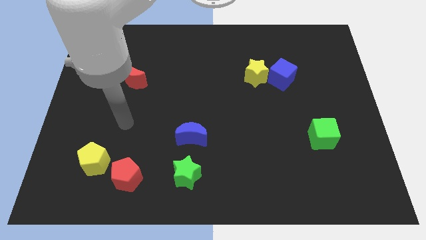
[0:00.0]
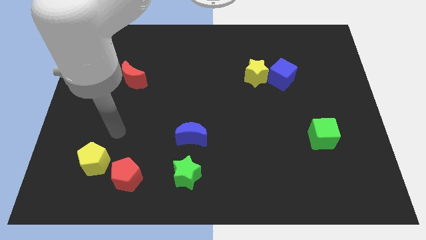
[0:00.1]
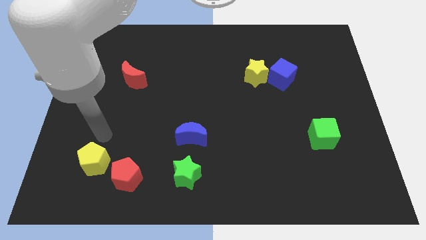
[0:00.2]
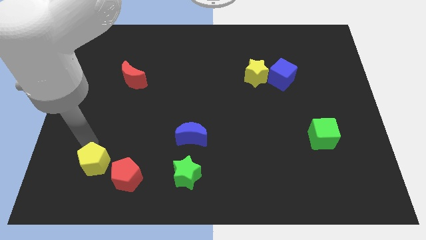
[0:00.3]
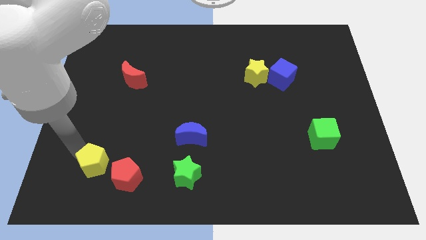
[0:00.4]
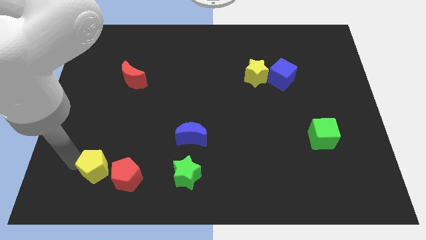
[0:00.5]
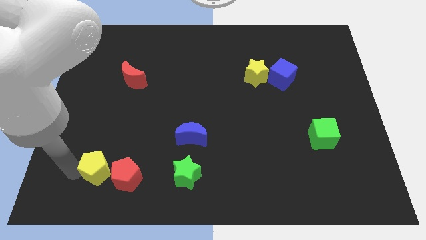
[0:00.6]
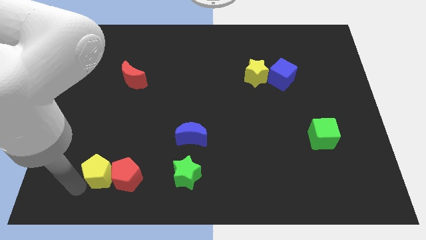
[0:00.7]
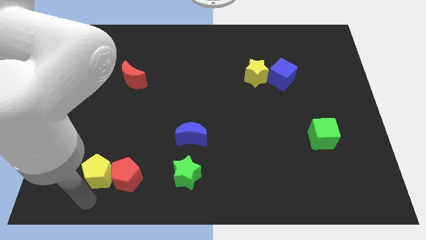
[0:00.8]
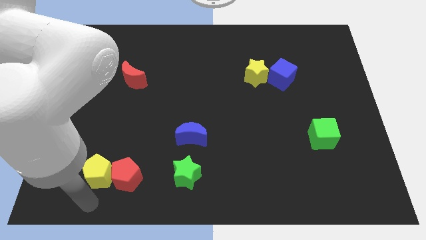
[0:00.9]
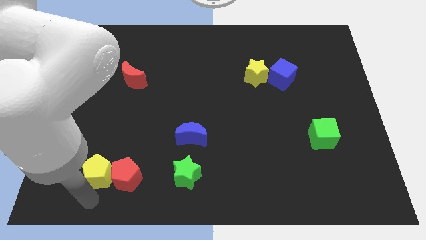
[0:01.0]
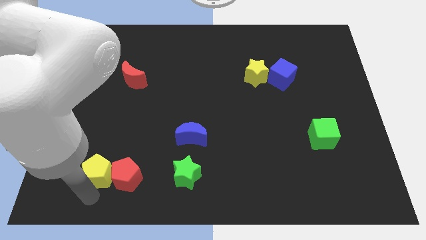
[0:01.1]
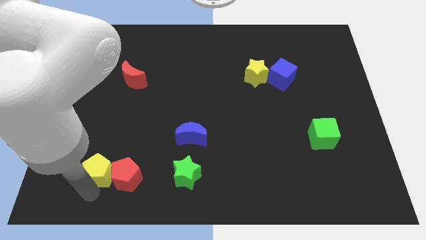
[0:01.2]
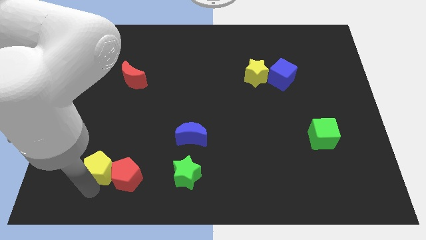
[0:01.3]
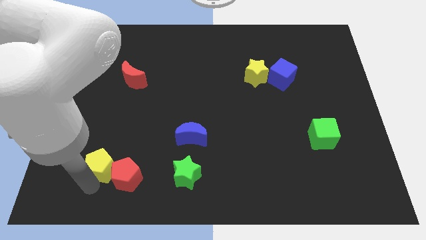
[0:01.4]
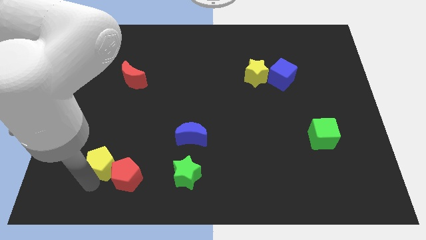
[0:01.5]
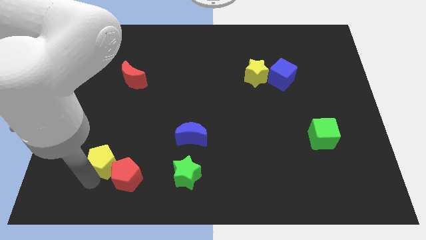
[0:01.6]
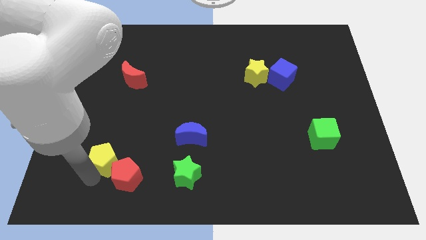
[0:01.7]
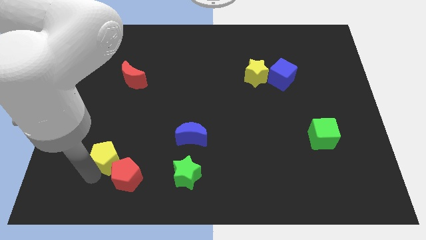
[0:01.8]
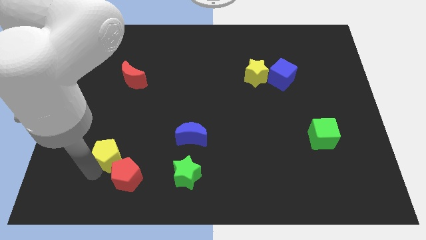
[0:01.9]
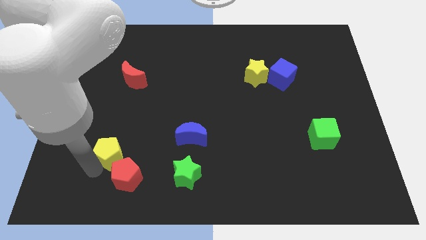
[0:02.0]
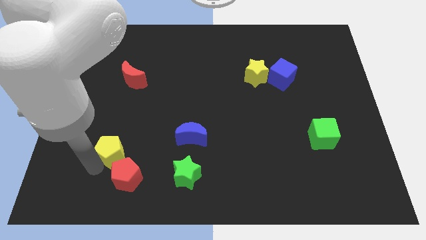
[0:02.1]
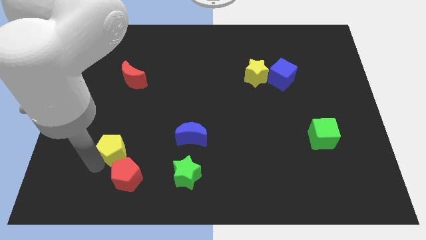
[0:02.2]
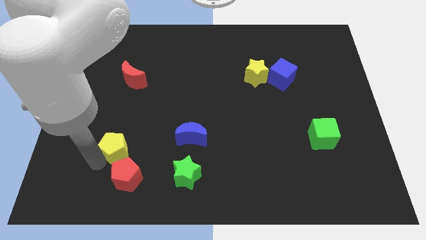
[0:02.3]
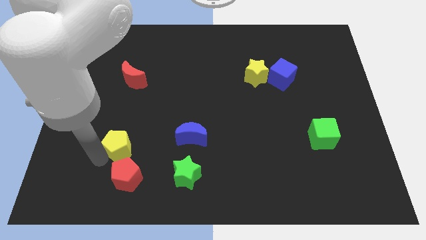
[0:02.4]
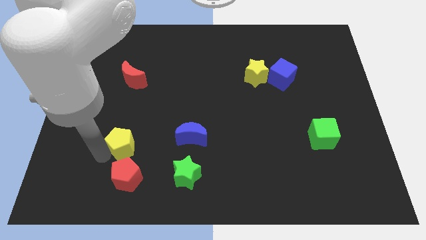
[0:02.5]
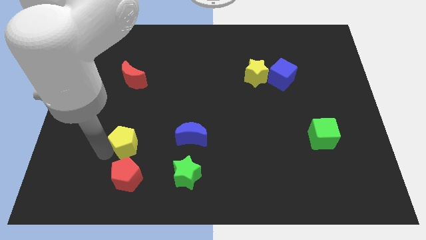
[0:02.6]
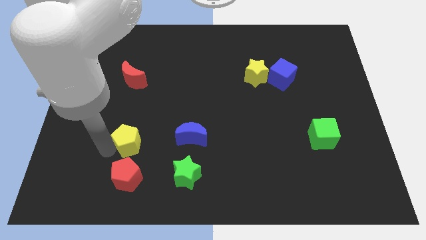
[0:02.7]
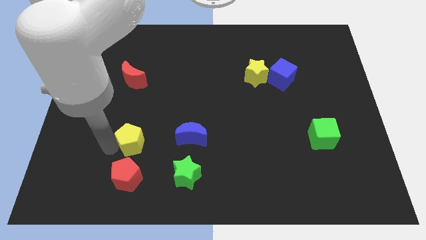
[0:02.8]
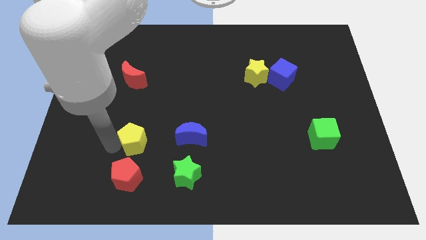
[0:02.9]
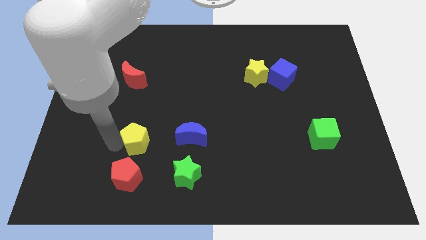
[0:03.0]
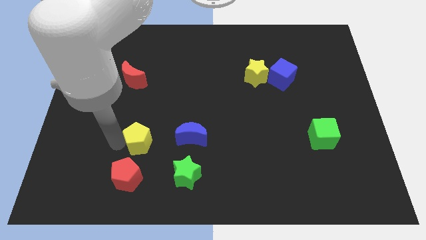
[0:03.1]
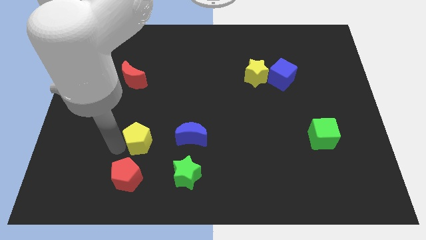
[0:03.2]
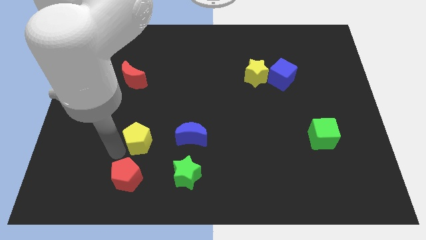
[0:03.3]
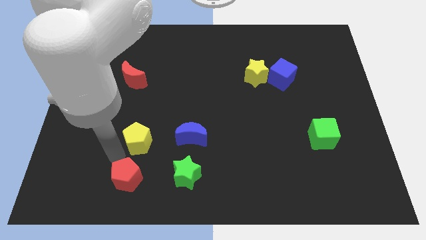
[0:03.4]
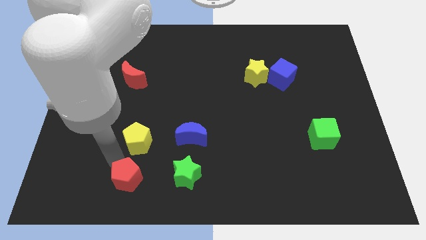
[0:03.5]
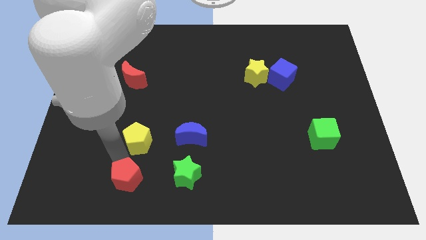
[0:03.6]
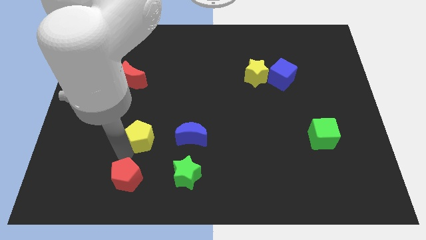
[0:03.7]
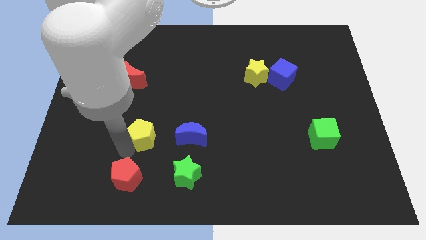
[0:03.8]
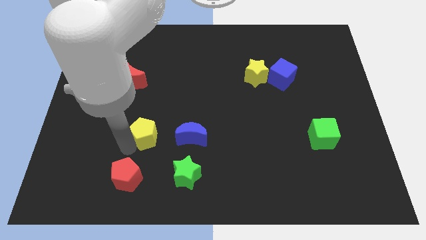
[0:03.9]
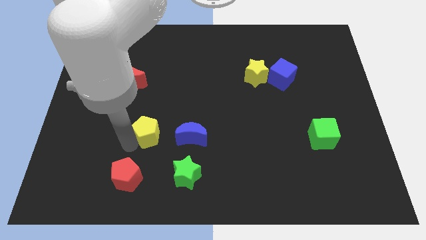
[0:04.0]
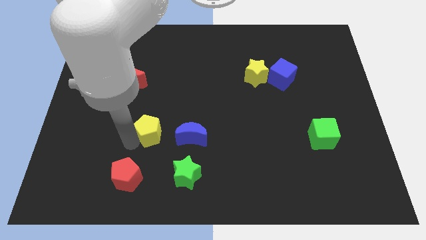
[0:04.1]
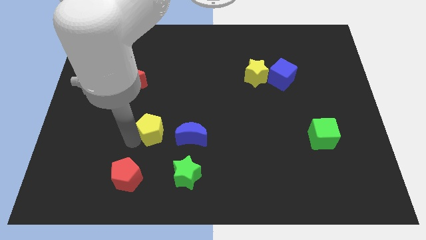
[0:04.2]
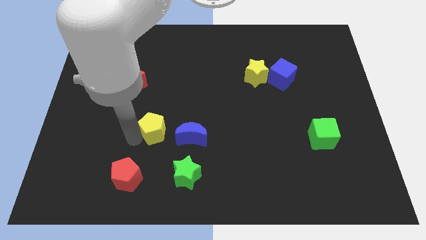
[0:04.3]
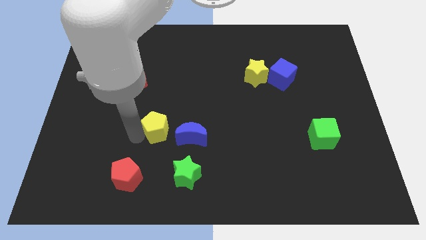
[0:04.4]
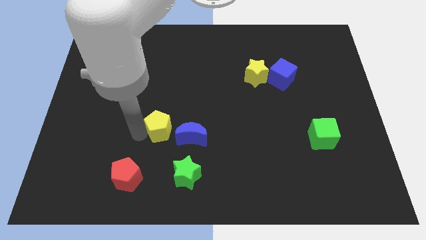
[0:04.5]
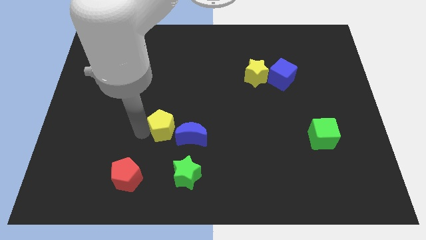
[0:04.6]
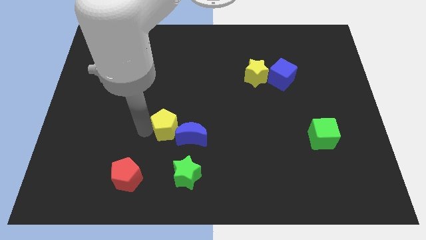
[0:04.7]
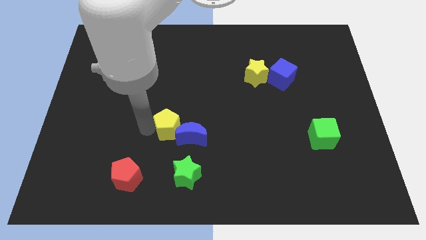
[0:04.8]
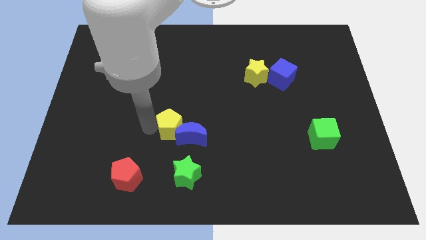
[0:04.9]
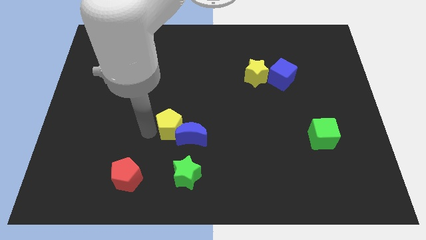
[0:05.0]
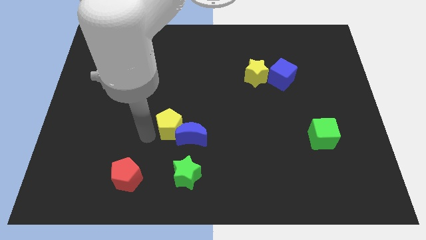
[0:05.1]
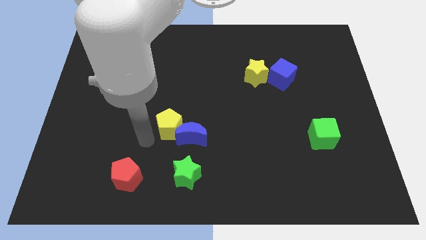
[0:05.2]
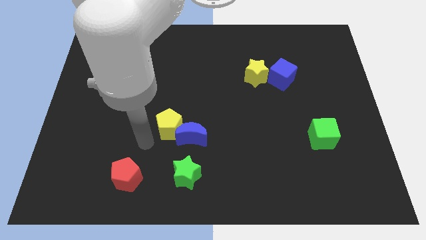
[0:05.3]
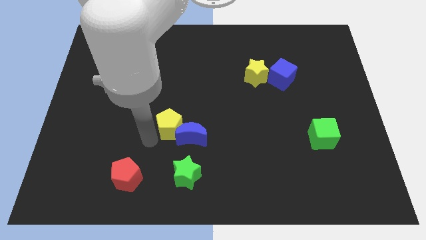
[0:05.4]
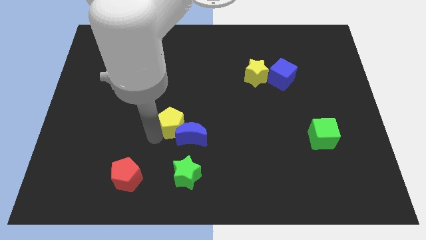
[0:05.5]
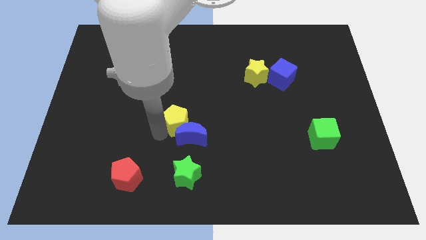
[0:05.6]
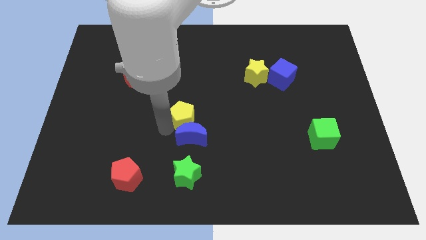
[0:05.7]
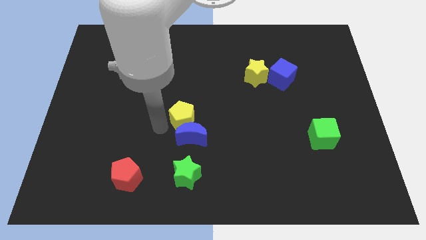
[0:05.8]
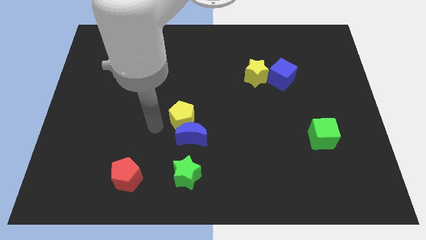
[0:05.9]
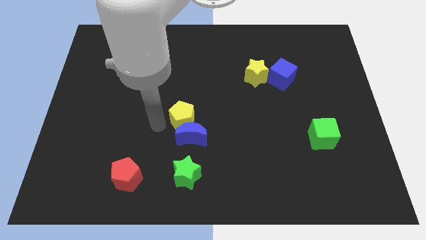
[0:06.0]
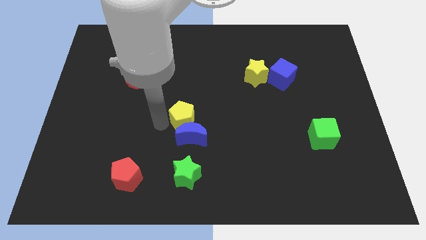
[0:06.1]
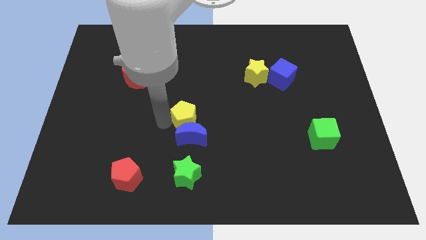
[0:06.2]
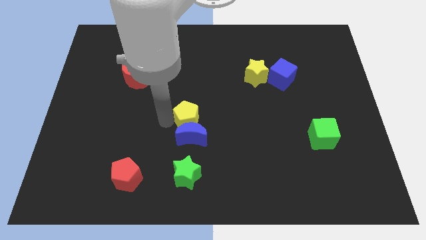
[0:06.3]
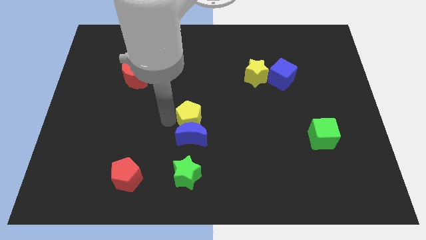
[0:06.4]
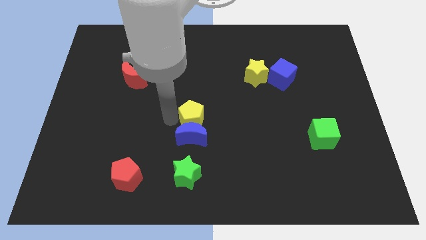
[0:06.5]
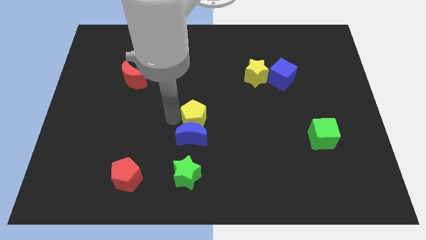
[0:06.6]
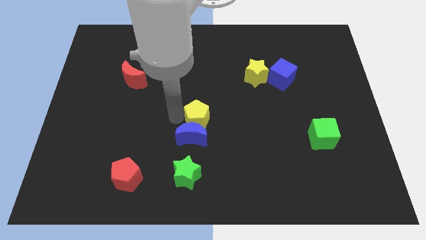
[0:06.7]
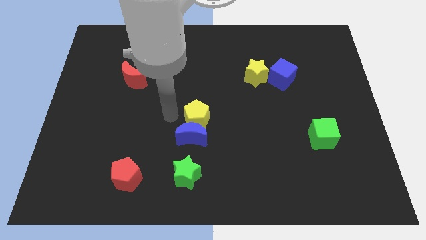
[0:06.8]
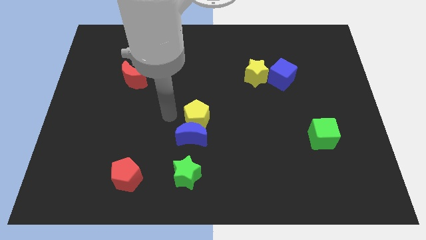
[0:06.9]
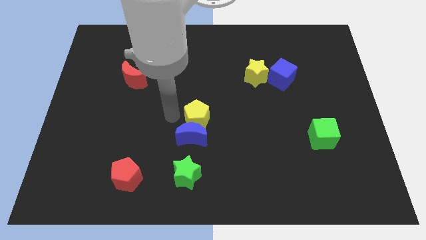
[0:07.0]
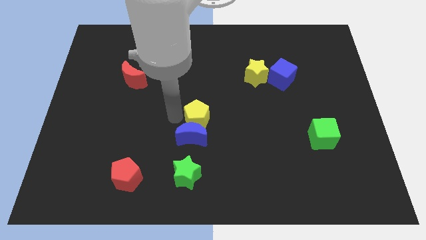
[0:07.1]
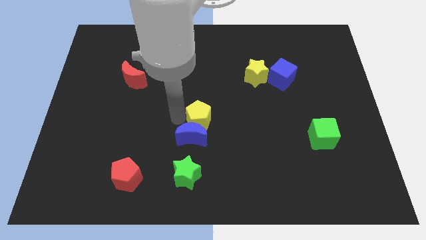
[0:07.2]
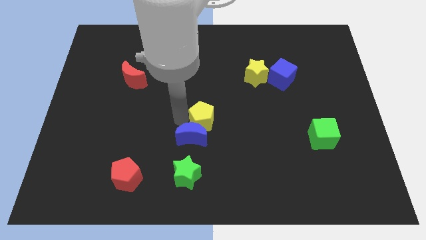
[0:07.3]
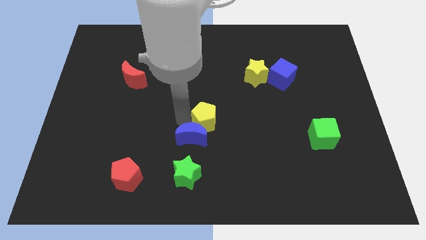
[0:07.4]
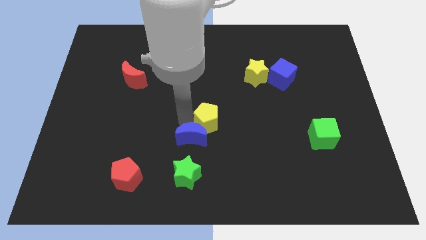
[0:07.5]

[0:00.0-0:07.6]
put the yellow pentagon to the right of the blue moon
